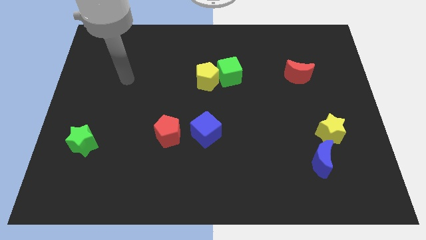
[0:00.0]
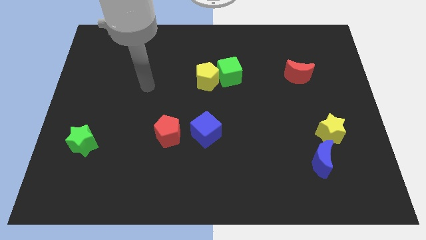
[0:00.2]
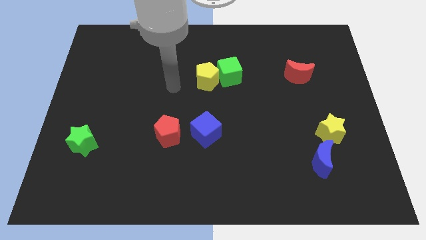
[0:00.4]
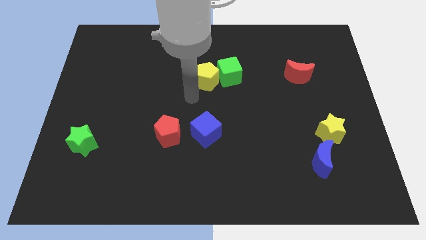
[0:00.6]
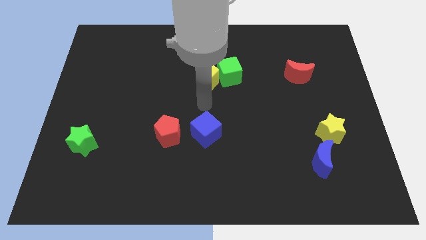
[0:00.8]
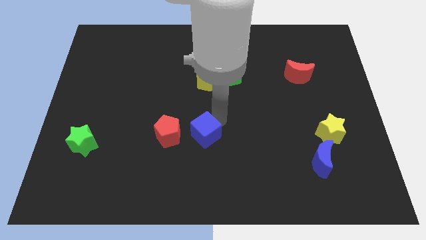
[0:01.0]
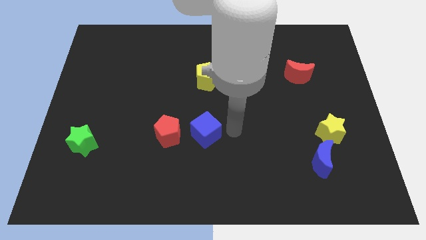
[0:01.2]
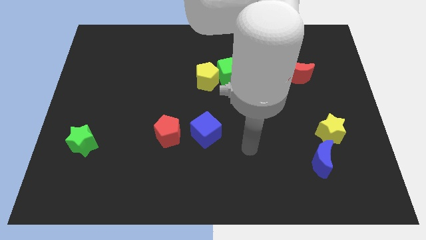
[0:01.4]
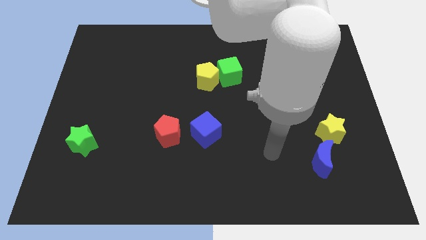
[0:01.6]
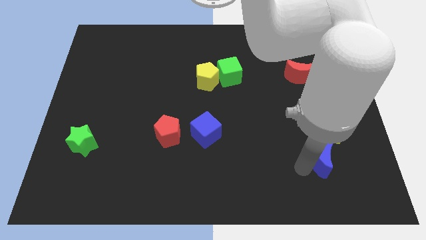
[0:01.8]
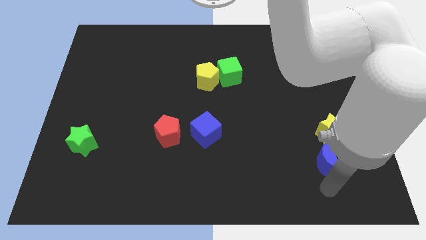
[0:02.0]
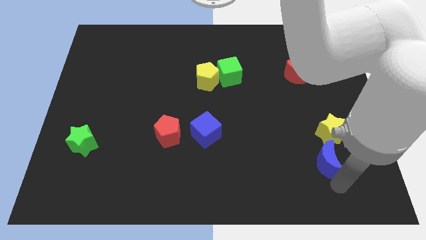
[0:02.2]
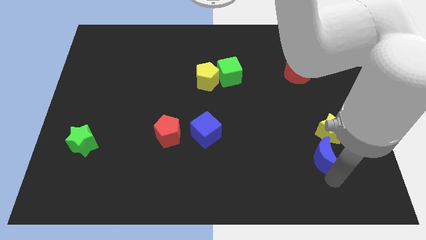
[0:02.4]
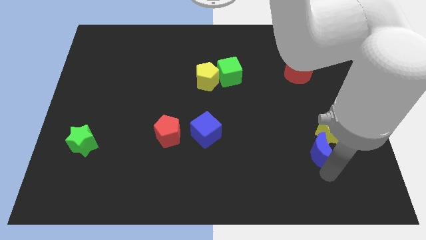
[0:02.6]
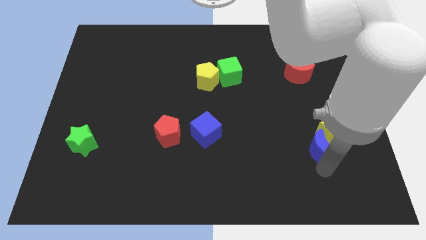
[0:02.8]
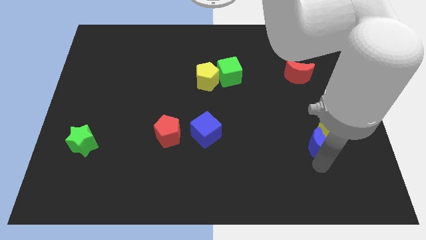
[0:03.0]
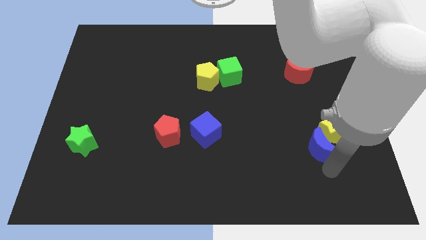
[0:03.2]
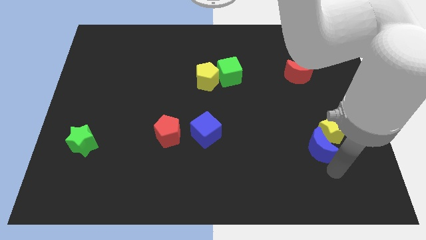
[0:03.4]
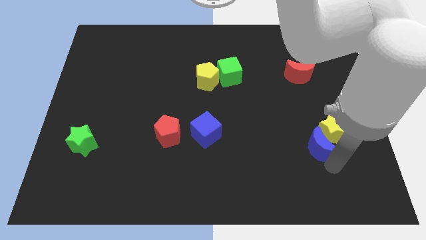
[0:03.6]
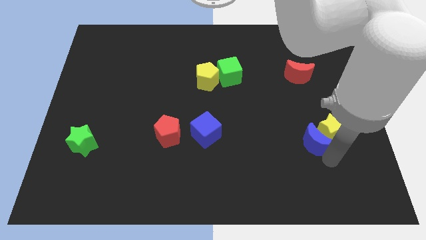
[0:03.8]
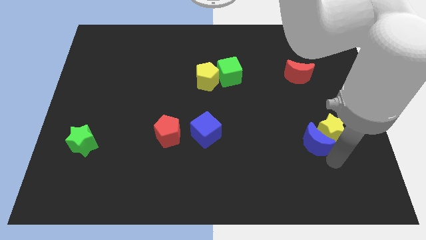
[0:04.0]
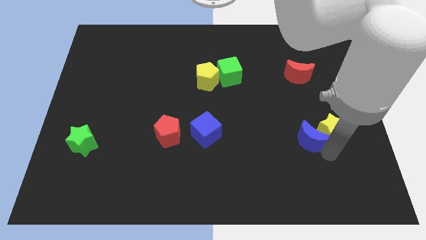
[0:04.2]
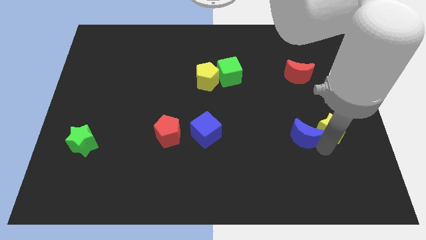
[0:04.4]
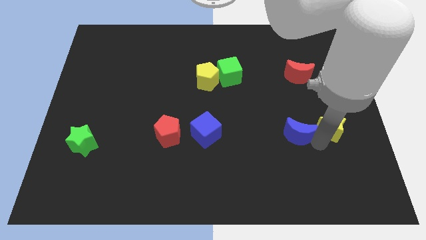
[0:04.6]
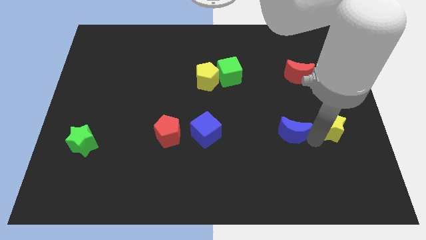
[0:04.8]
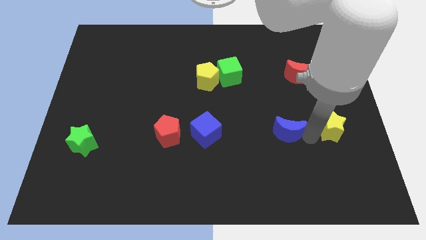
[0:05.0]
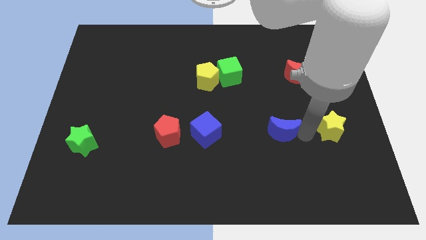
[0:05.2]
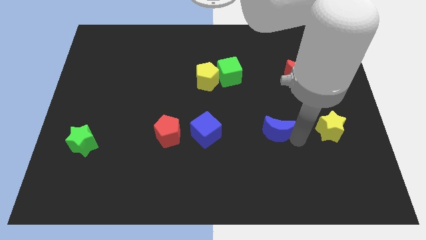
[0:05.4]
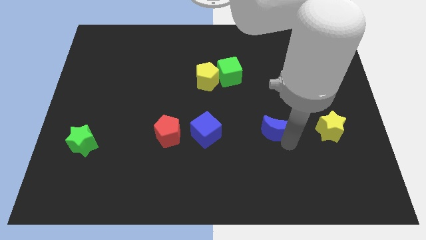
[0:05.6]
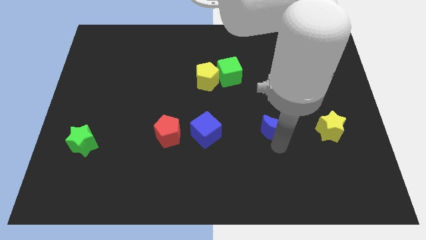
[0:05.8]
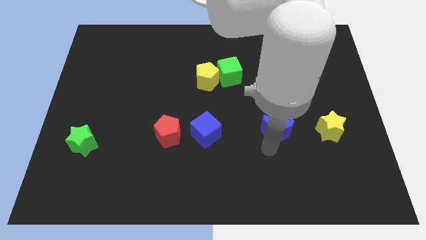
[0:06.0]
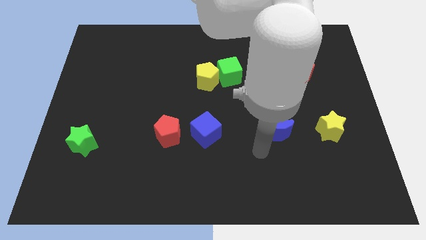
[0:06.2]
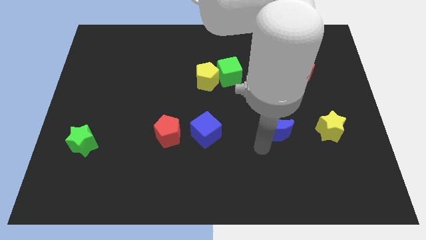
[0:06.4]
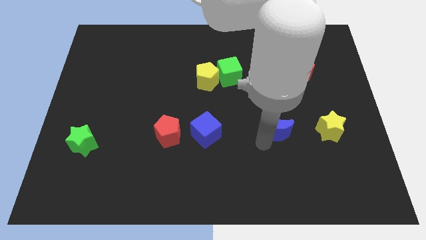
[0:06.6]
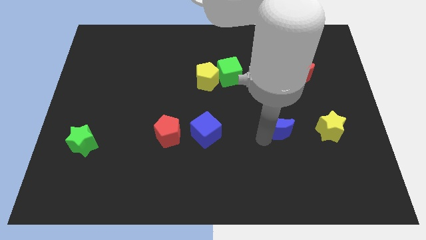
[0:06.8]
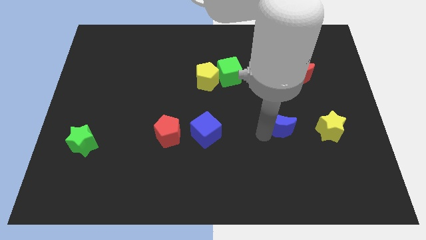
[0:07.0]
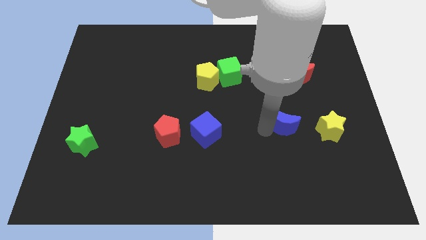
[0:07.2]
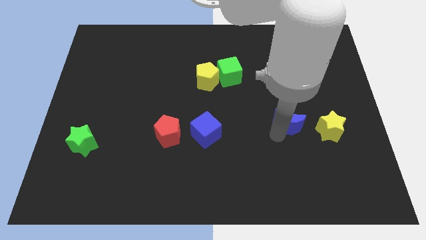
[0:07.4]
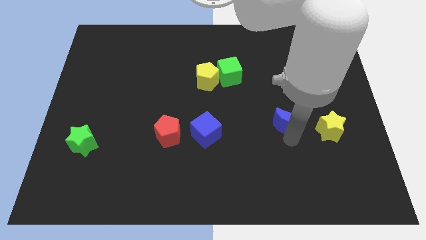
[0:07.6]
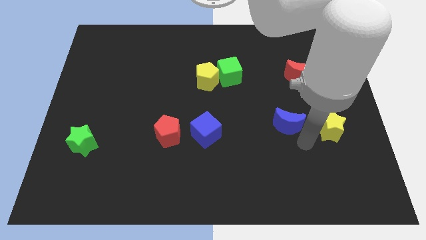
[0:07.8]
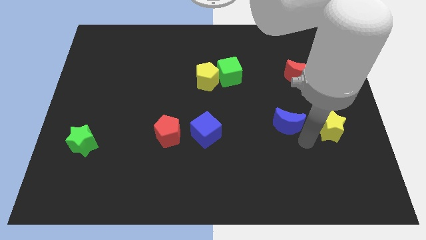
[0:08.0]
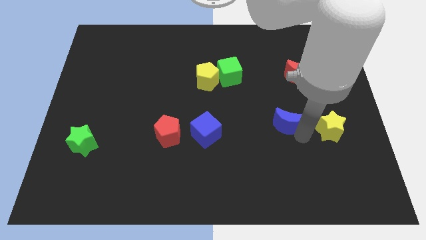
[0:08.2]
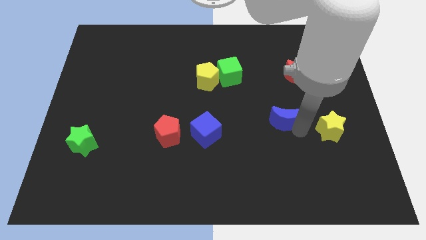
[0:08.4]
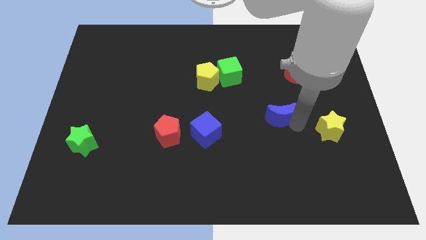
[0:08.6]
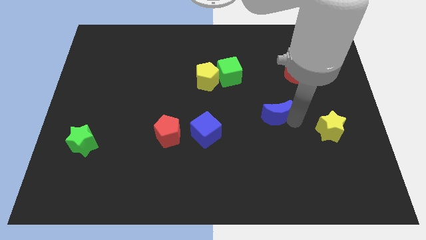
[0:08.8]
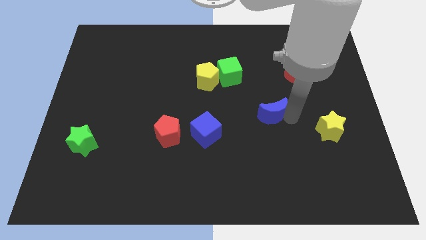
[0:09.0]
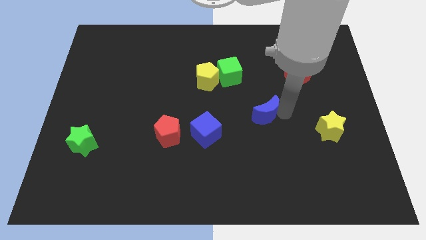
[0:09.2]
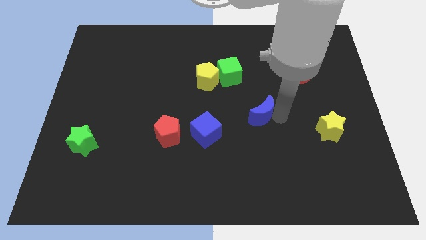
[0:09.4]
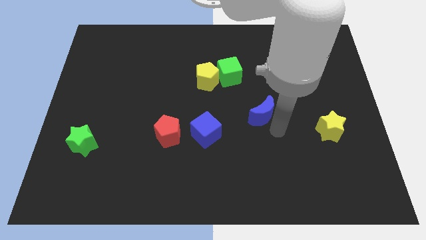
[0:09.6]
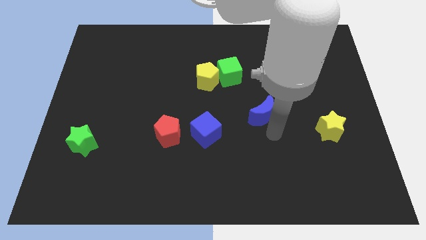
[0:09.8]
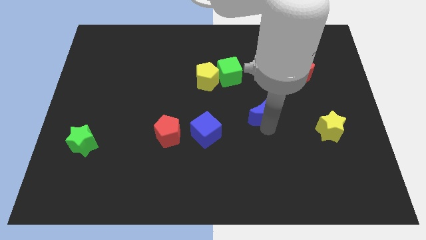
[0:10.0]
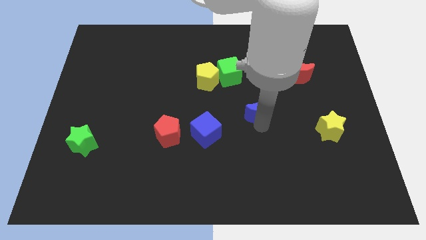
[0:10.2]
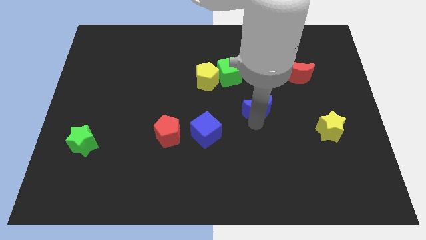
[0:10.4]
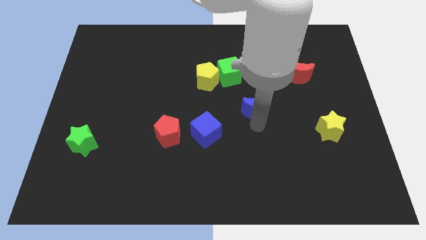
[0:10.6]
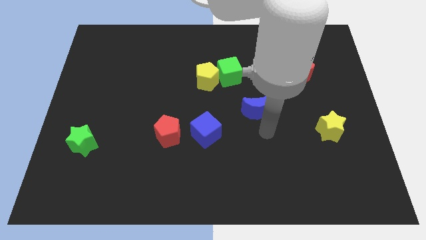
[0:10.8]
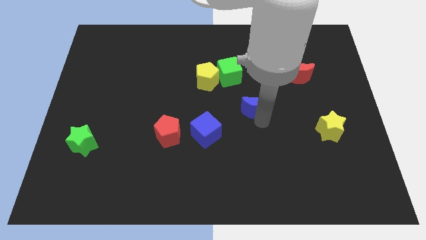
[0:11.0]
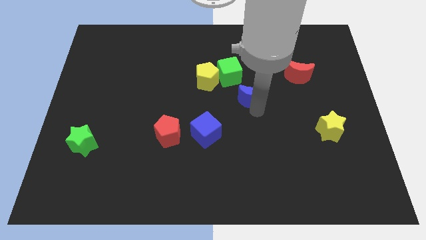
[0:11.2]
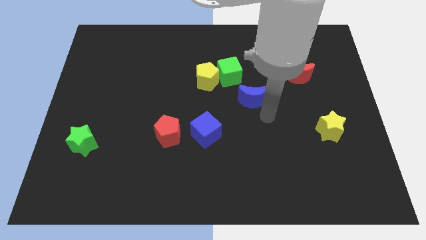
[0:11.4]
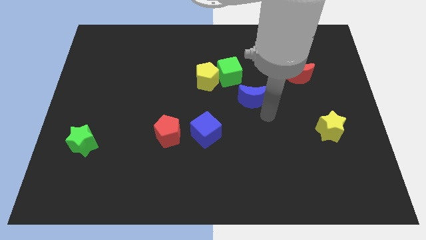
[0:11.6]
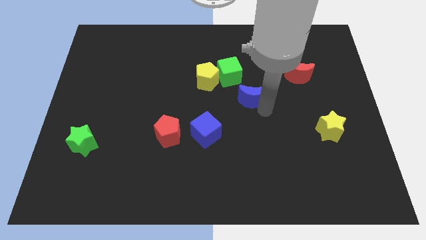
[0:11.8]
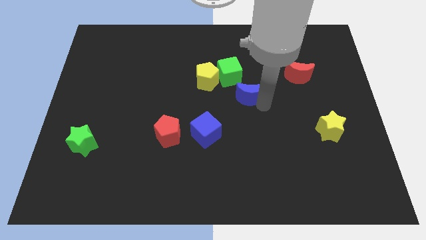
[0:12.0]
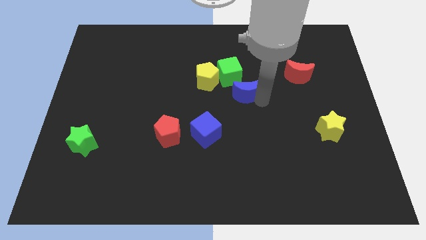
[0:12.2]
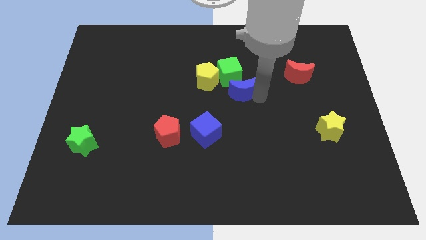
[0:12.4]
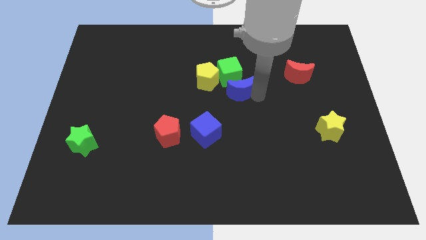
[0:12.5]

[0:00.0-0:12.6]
move the blue moon close to the green cube

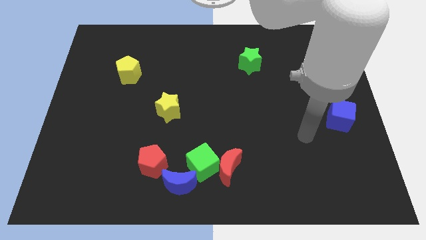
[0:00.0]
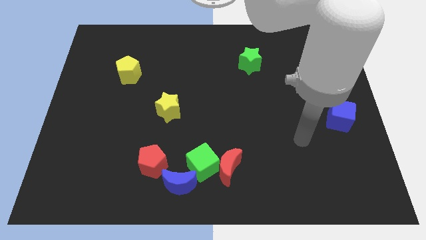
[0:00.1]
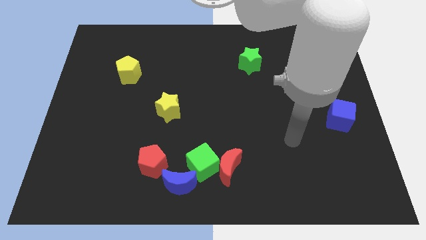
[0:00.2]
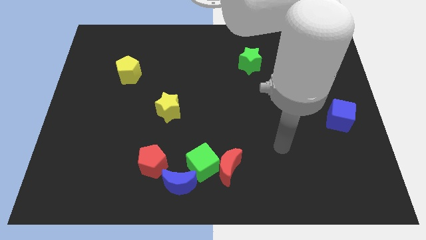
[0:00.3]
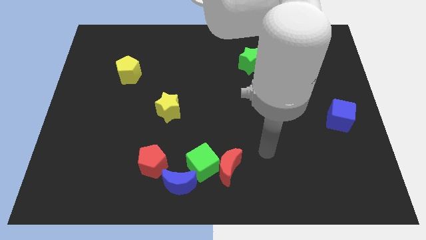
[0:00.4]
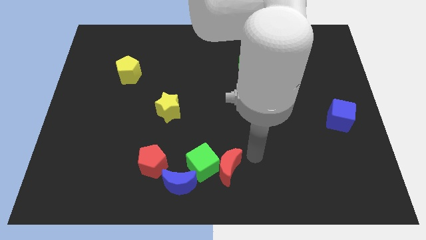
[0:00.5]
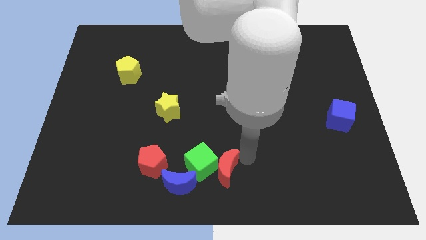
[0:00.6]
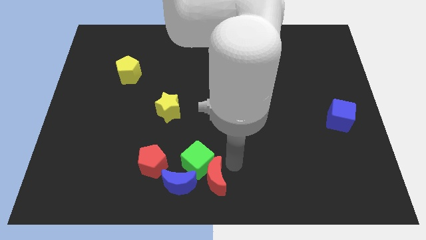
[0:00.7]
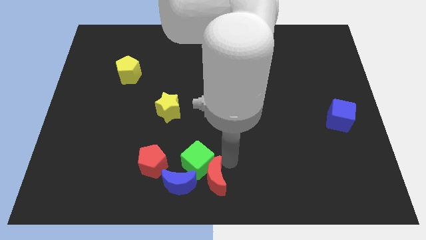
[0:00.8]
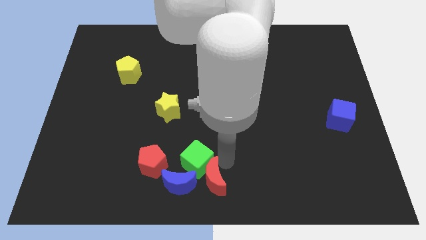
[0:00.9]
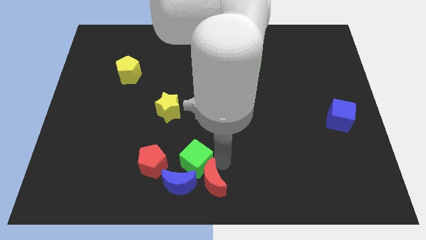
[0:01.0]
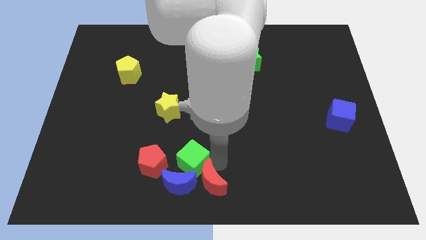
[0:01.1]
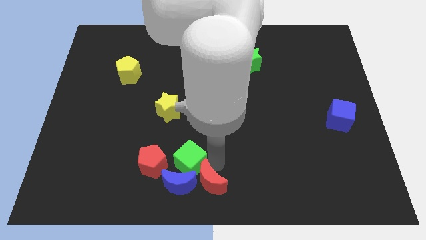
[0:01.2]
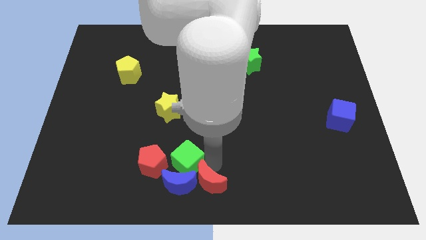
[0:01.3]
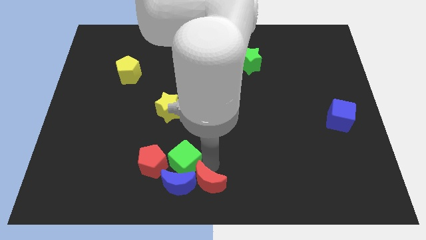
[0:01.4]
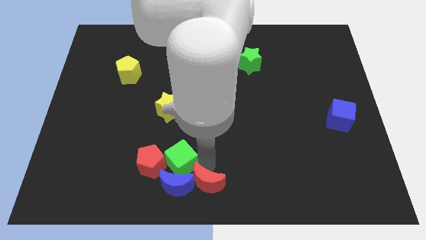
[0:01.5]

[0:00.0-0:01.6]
push the green cube to the red pentagon
